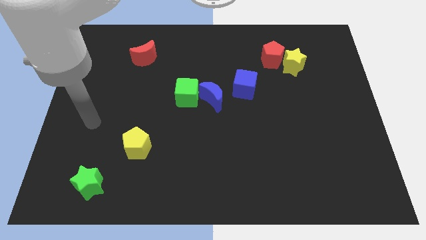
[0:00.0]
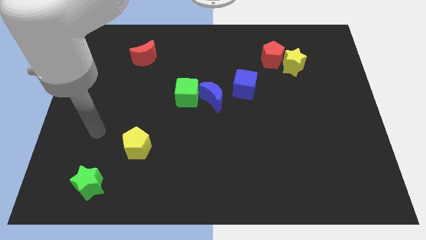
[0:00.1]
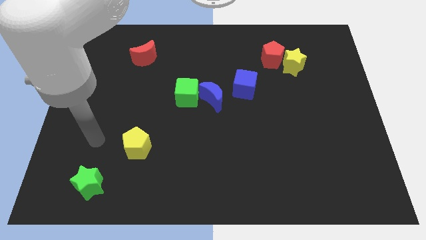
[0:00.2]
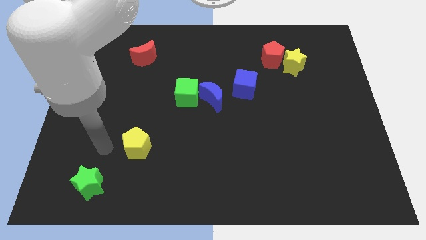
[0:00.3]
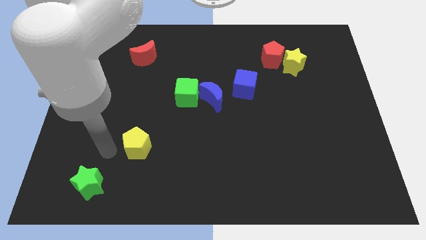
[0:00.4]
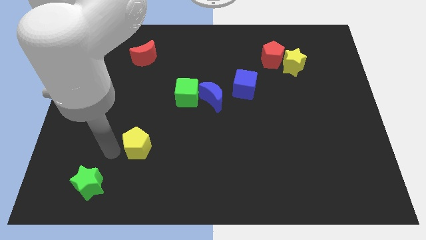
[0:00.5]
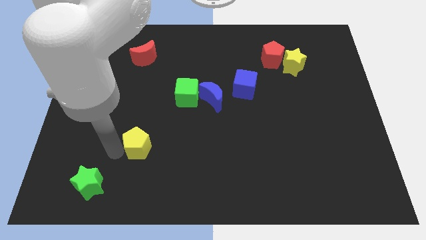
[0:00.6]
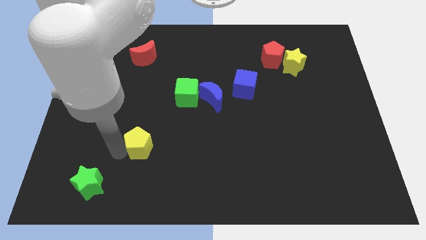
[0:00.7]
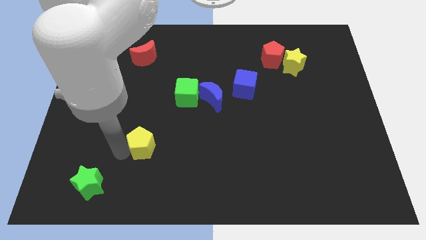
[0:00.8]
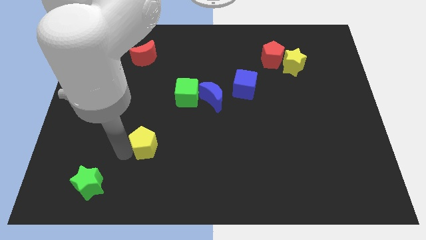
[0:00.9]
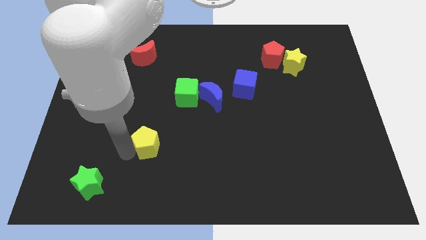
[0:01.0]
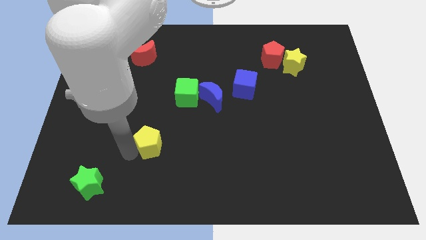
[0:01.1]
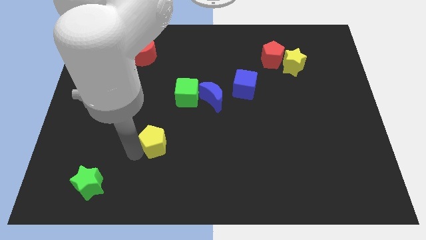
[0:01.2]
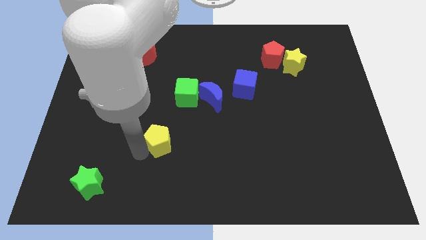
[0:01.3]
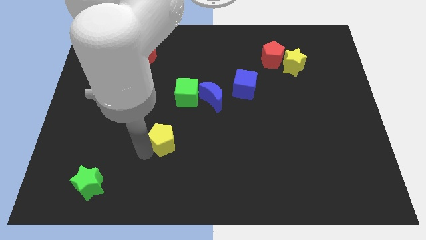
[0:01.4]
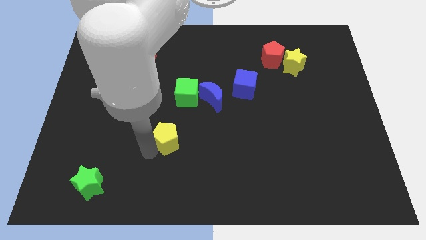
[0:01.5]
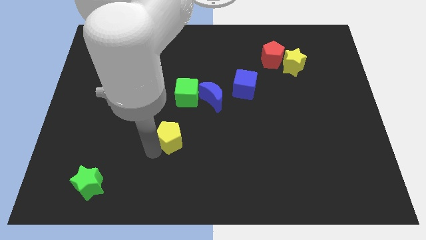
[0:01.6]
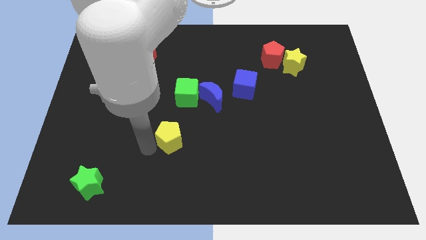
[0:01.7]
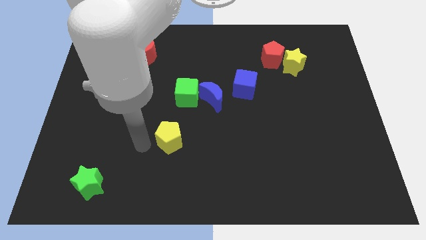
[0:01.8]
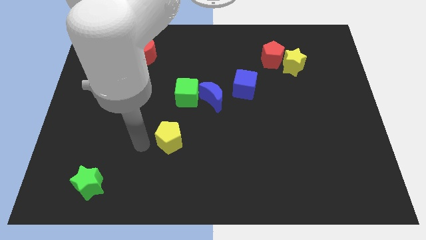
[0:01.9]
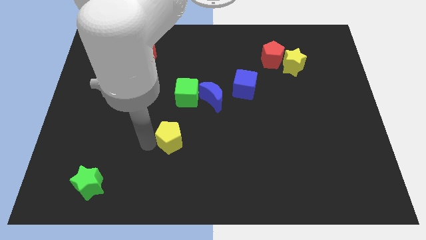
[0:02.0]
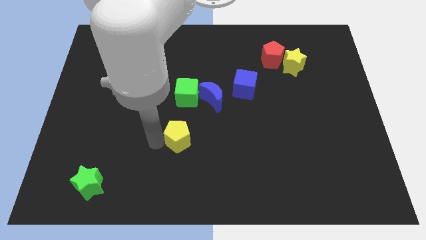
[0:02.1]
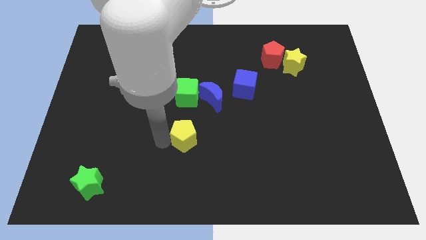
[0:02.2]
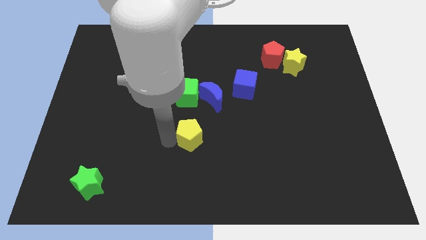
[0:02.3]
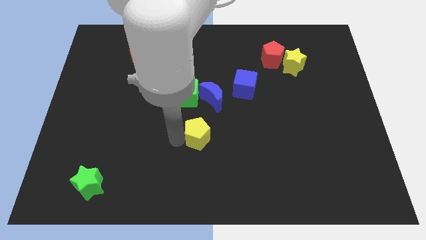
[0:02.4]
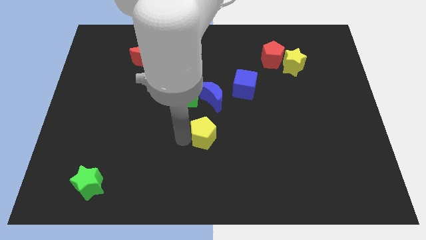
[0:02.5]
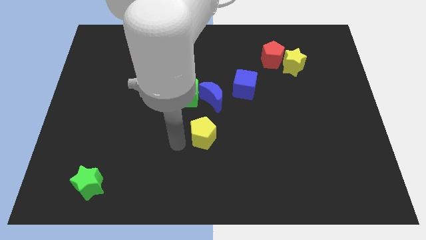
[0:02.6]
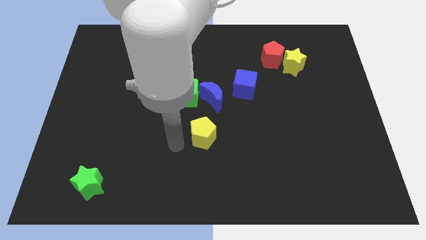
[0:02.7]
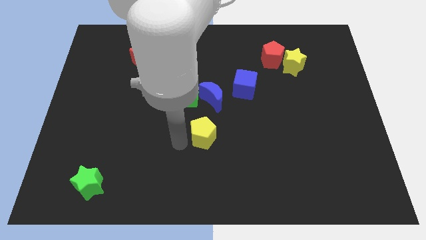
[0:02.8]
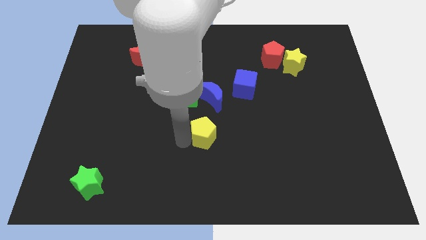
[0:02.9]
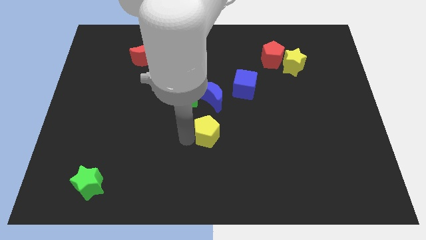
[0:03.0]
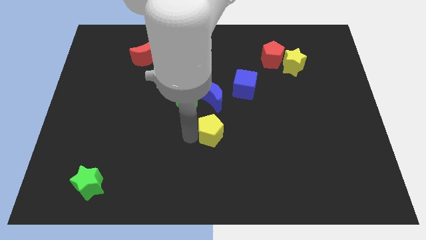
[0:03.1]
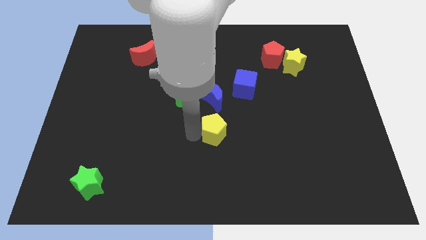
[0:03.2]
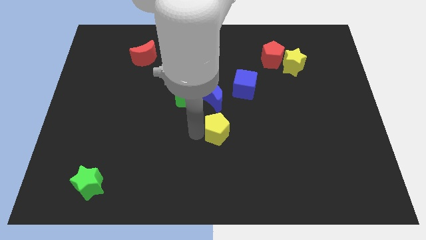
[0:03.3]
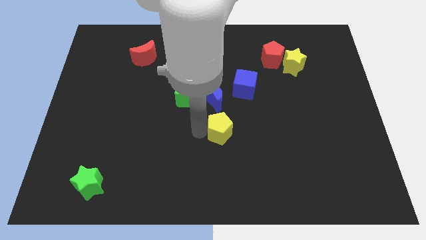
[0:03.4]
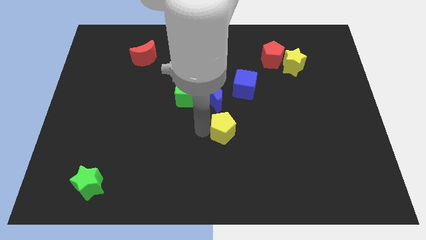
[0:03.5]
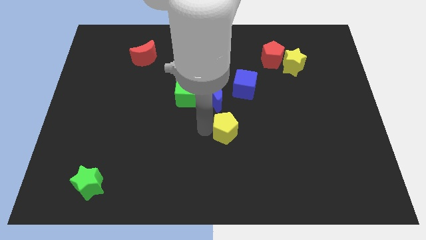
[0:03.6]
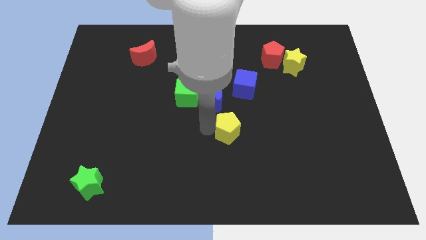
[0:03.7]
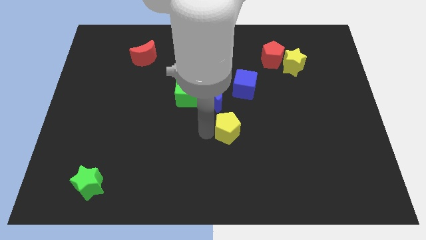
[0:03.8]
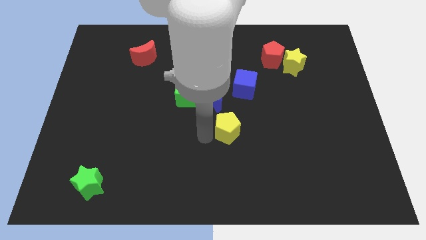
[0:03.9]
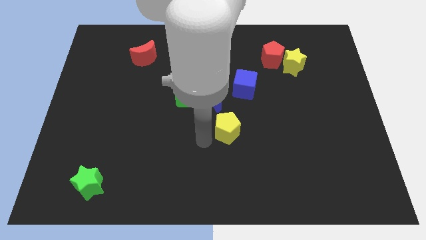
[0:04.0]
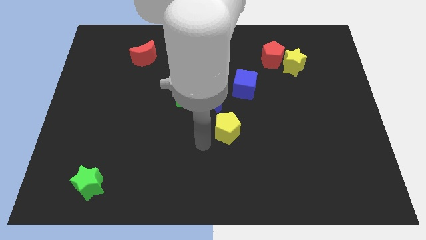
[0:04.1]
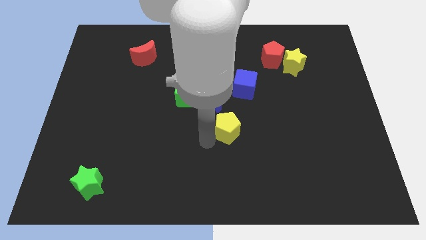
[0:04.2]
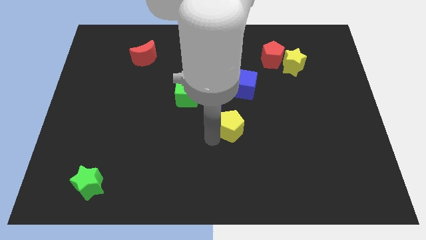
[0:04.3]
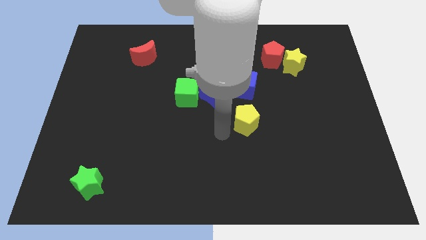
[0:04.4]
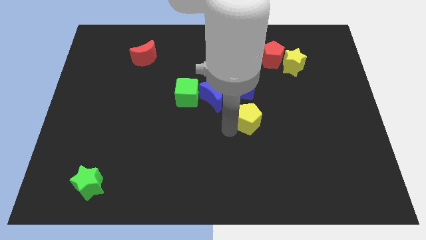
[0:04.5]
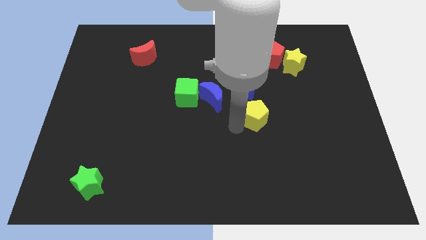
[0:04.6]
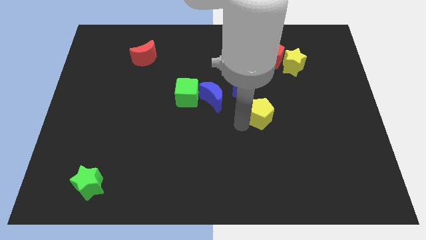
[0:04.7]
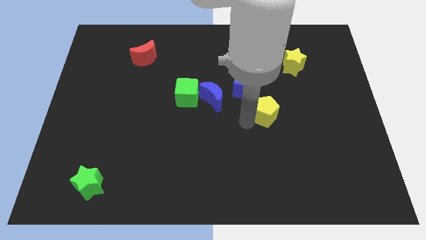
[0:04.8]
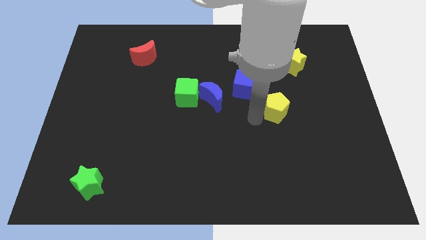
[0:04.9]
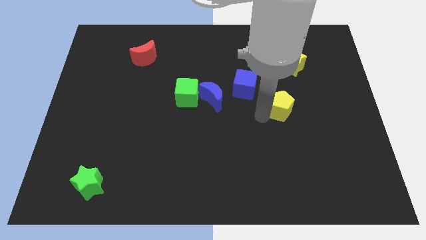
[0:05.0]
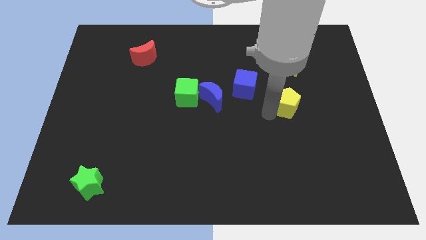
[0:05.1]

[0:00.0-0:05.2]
move the yellow pentagon to the bottom of the yellow star

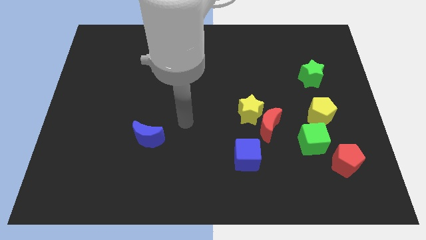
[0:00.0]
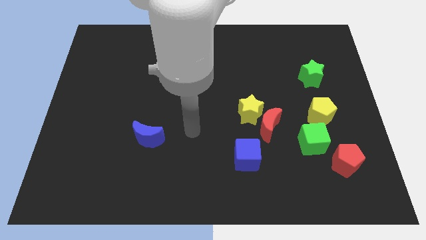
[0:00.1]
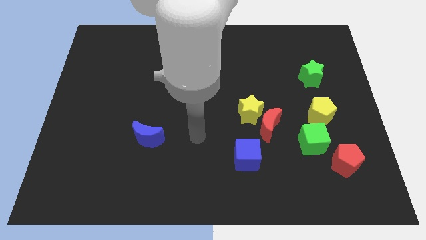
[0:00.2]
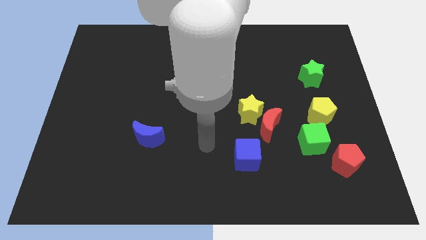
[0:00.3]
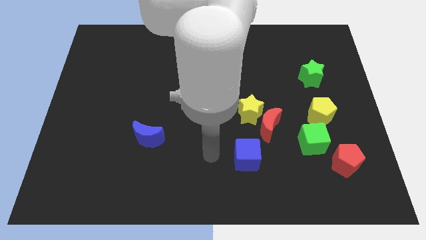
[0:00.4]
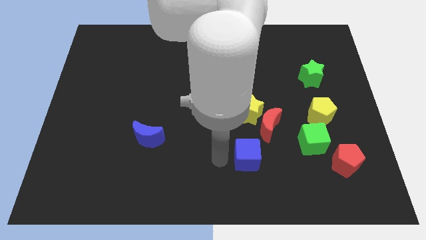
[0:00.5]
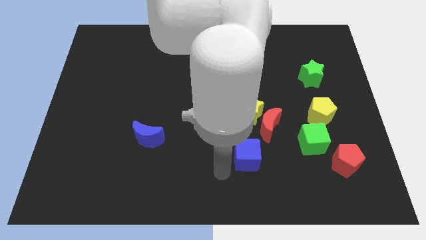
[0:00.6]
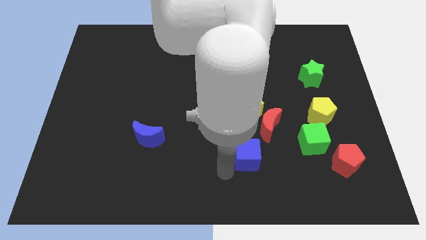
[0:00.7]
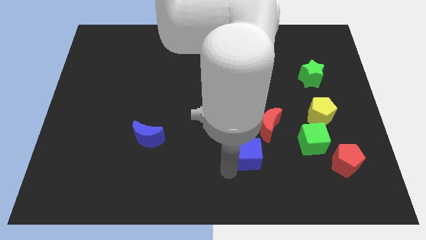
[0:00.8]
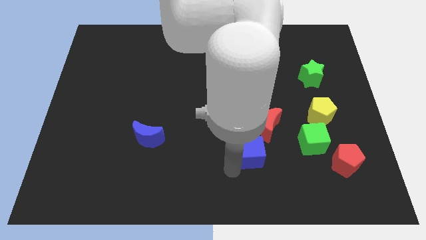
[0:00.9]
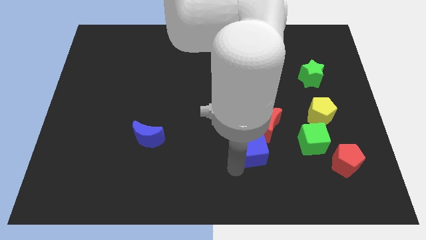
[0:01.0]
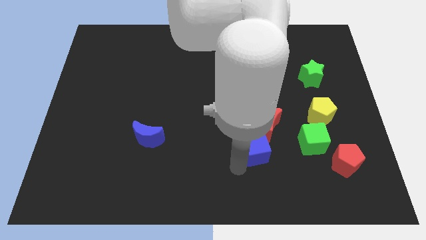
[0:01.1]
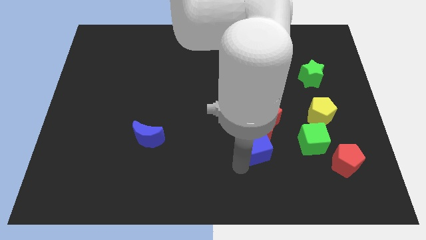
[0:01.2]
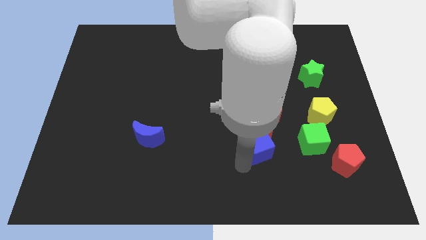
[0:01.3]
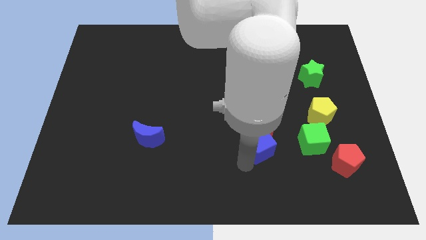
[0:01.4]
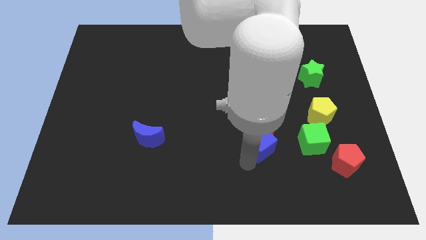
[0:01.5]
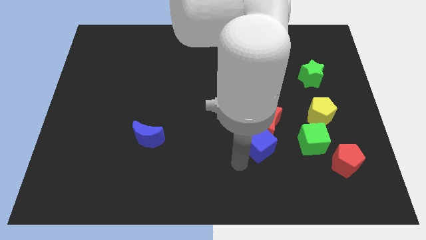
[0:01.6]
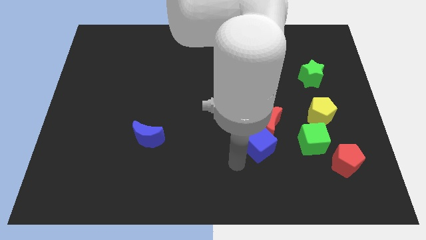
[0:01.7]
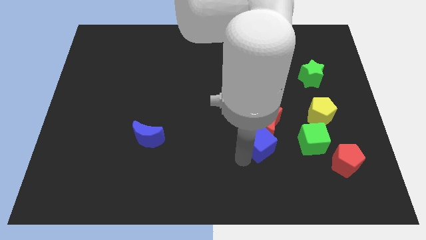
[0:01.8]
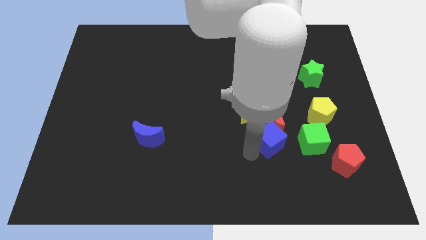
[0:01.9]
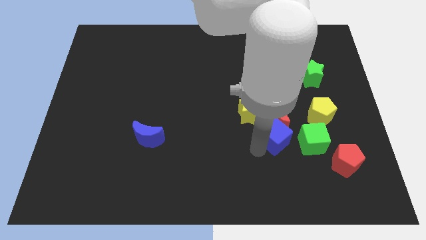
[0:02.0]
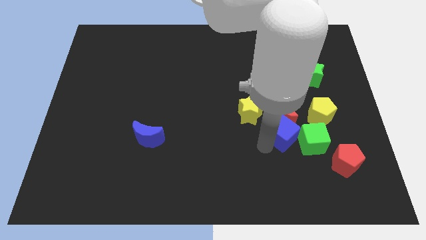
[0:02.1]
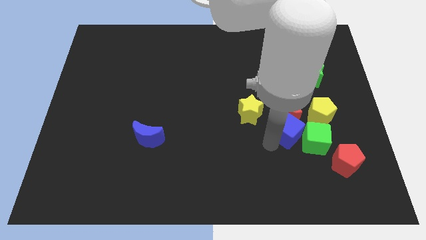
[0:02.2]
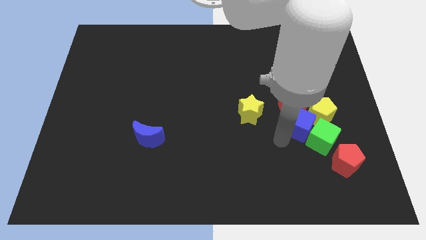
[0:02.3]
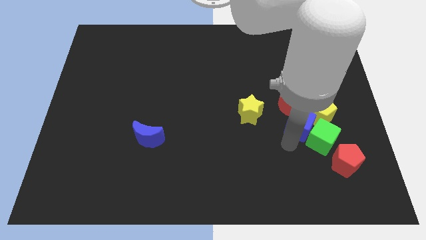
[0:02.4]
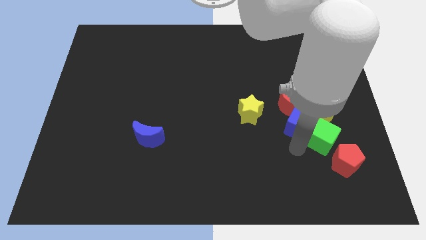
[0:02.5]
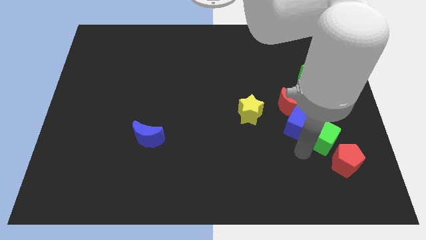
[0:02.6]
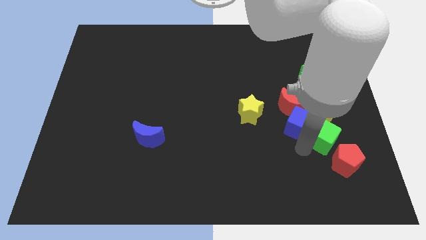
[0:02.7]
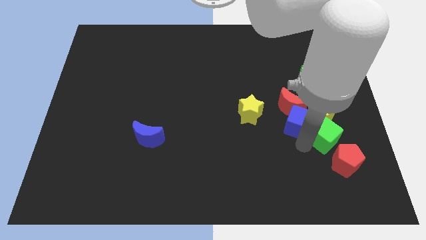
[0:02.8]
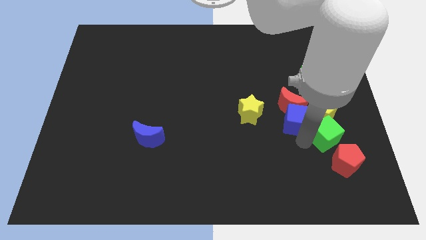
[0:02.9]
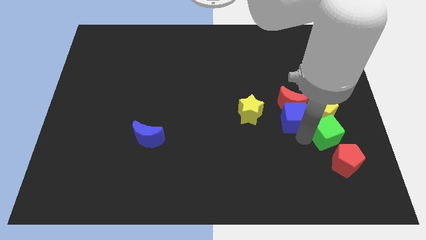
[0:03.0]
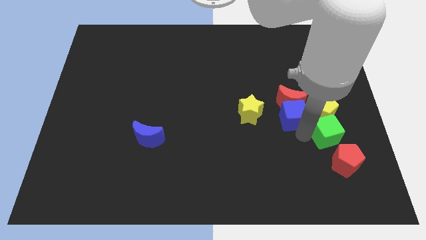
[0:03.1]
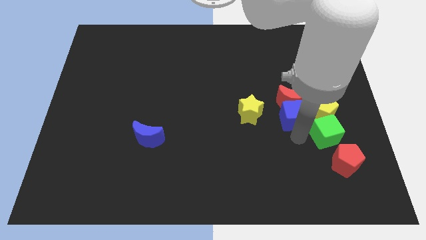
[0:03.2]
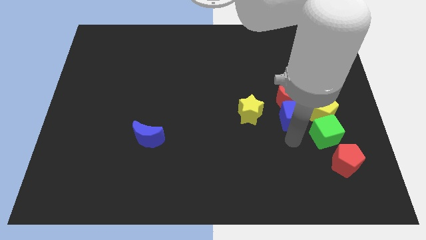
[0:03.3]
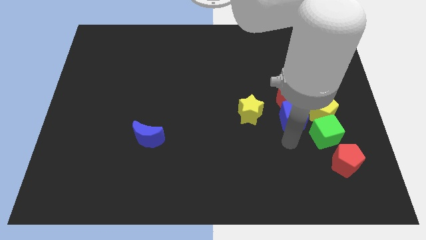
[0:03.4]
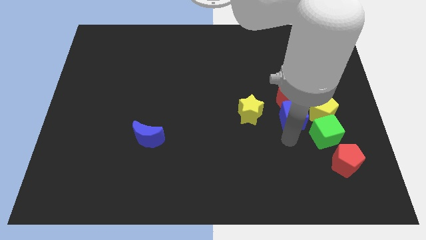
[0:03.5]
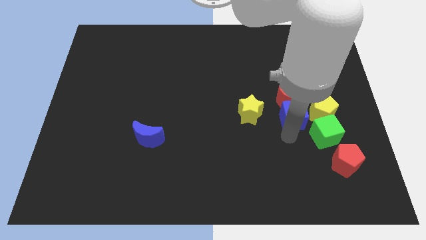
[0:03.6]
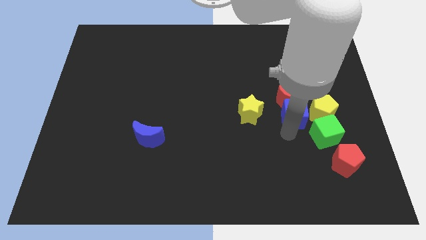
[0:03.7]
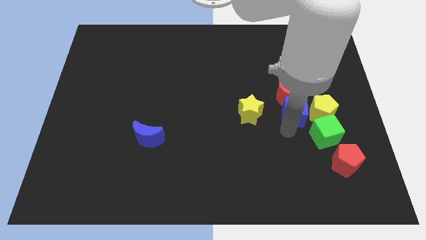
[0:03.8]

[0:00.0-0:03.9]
move the blue cube diagonally up and to the left of the yellow pentagon
